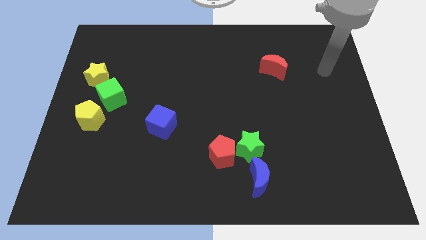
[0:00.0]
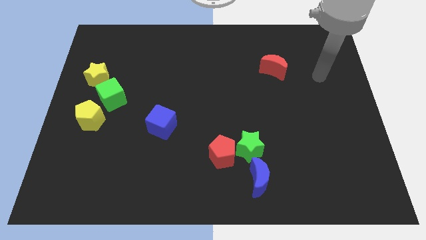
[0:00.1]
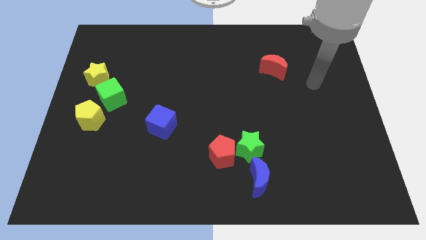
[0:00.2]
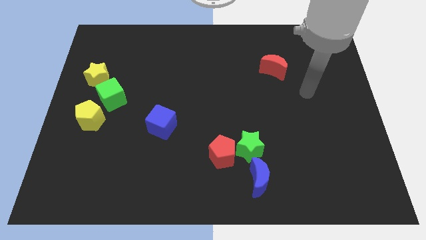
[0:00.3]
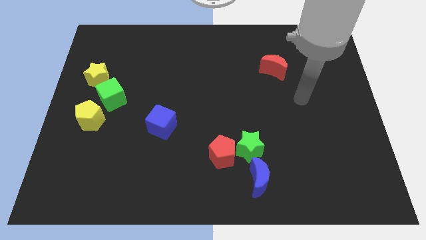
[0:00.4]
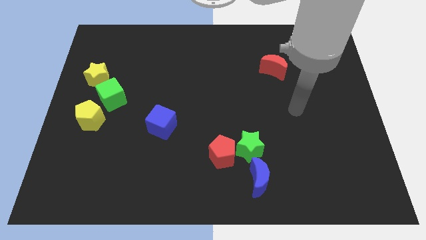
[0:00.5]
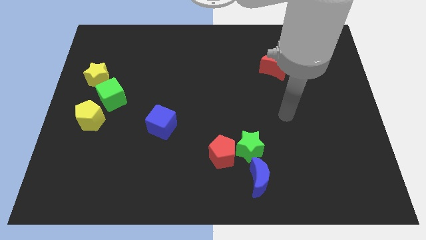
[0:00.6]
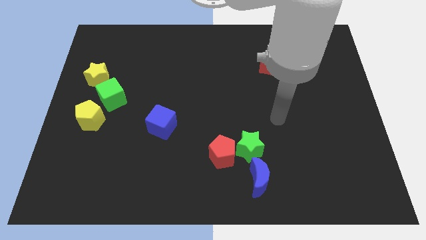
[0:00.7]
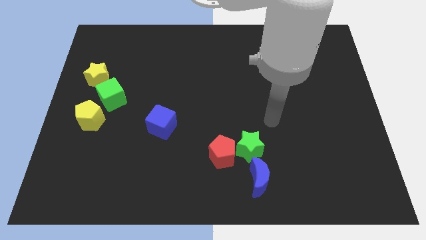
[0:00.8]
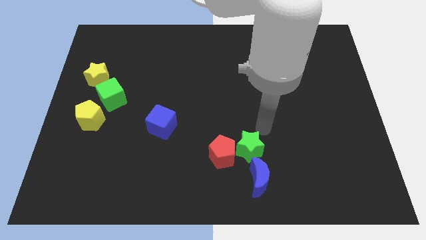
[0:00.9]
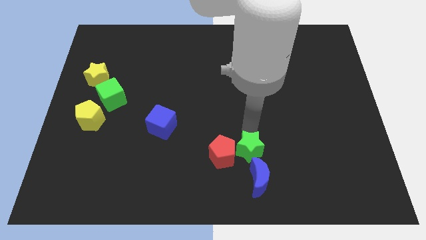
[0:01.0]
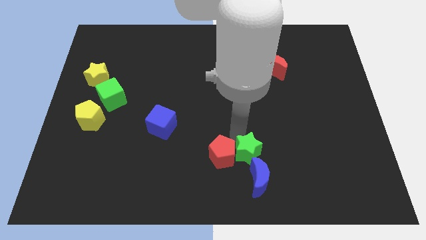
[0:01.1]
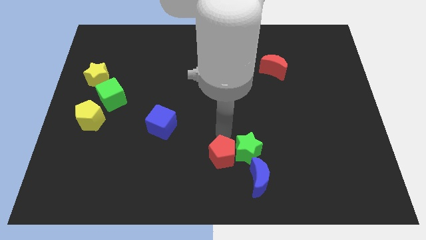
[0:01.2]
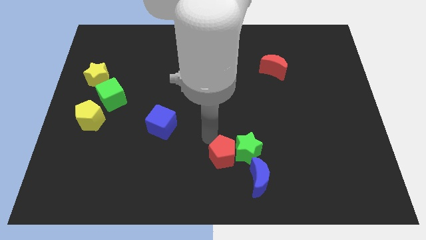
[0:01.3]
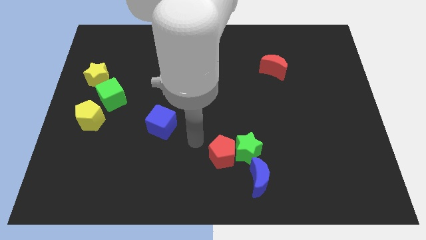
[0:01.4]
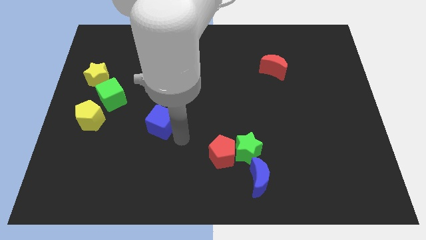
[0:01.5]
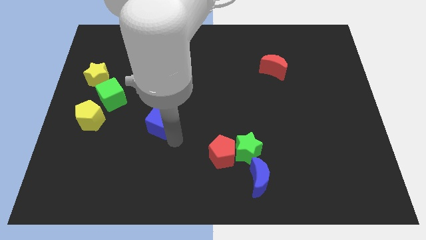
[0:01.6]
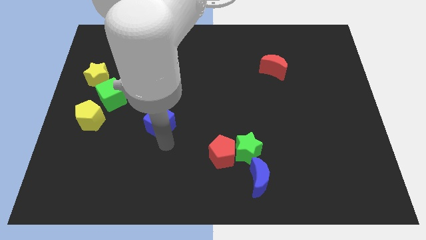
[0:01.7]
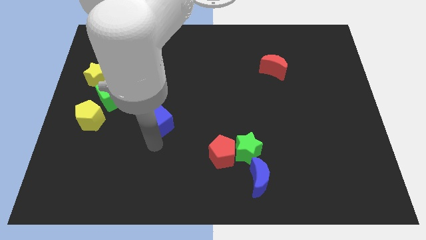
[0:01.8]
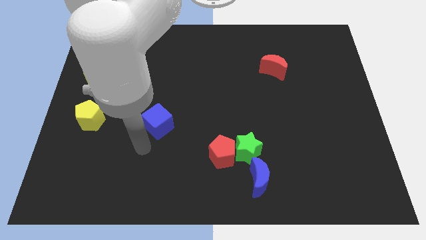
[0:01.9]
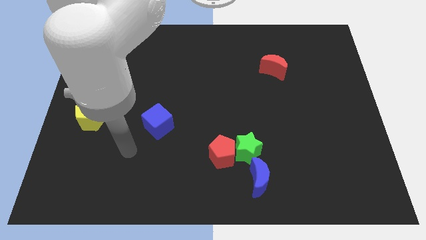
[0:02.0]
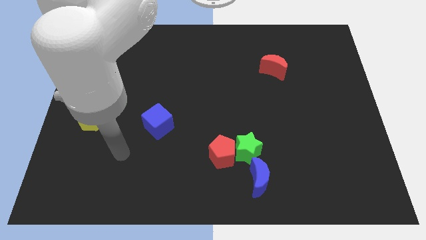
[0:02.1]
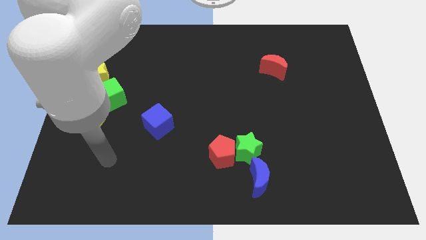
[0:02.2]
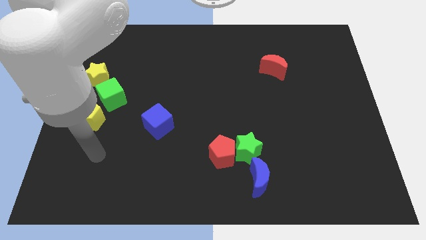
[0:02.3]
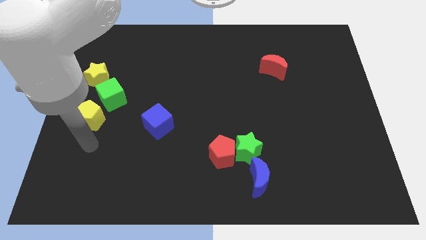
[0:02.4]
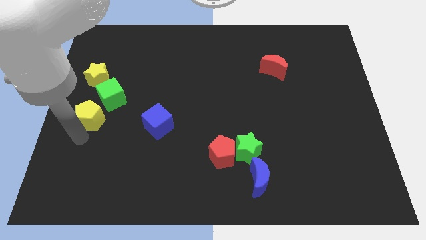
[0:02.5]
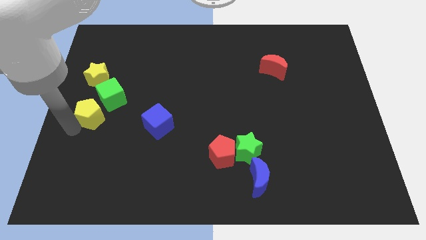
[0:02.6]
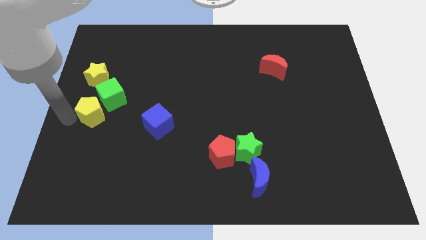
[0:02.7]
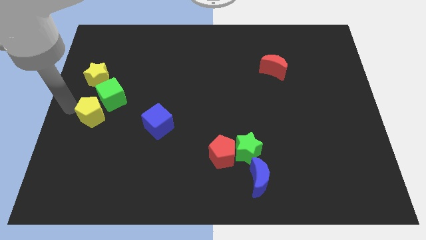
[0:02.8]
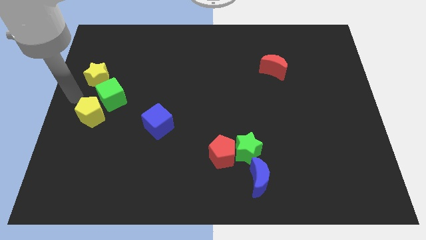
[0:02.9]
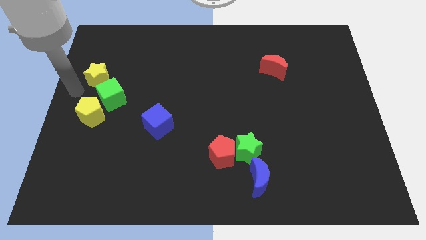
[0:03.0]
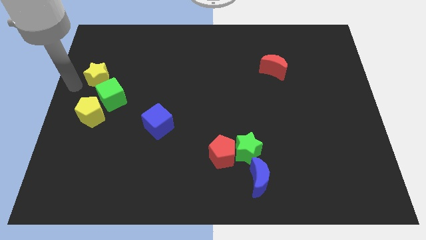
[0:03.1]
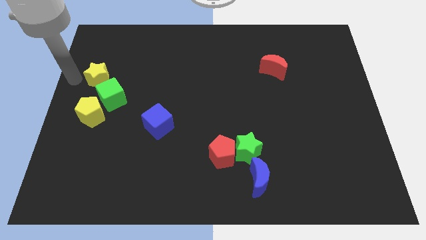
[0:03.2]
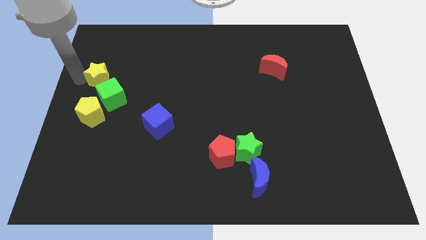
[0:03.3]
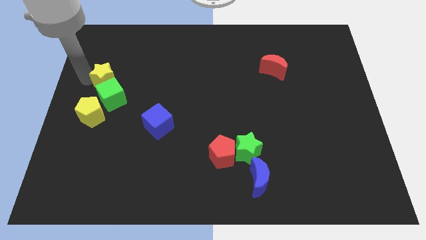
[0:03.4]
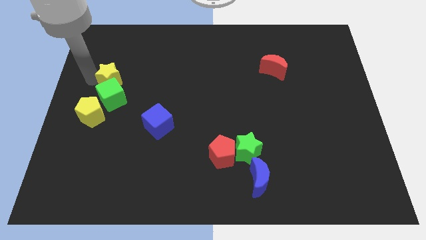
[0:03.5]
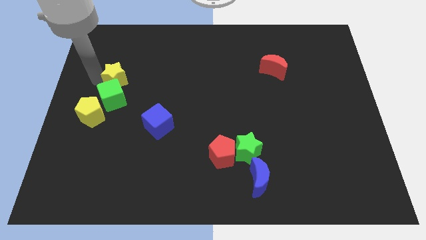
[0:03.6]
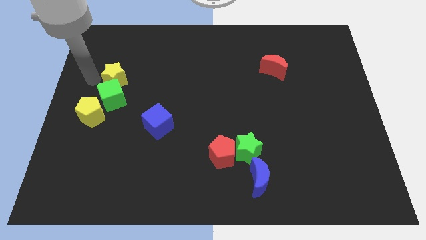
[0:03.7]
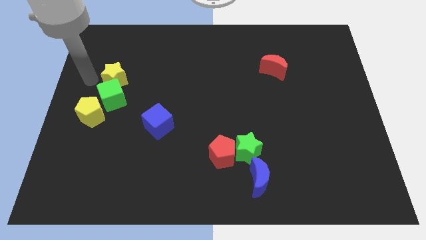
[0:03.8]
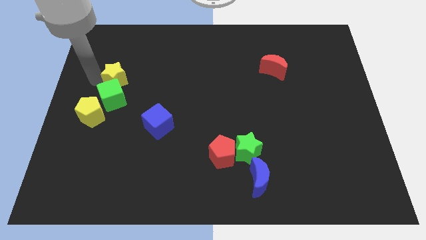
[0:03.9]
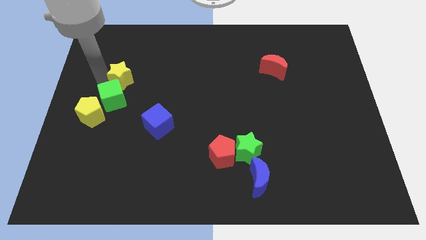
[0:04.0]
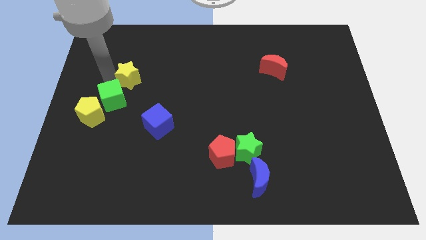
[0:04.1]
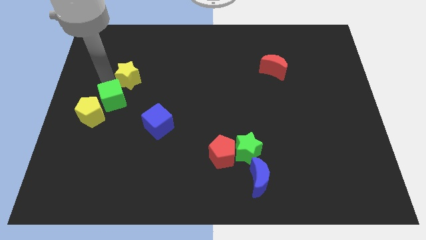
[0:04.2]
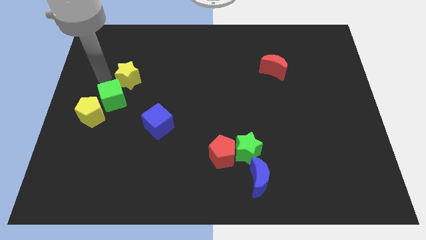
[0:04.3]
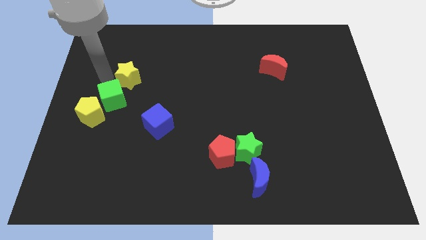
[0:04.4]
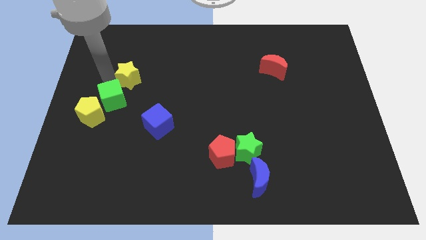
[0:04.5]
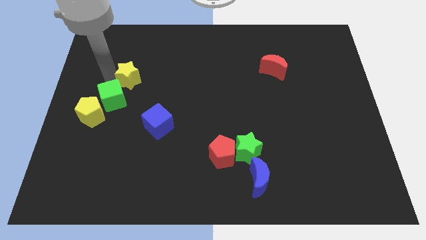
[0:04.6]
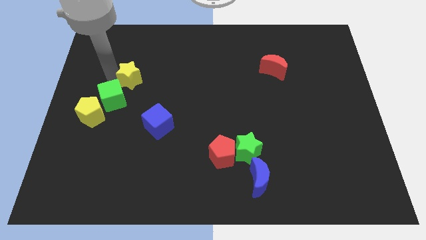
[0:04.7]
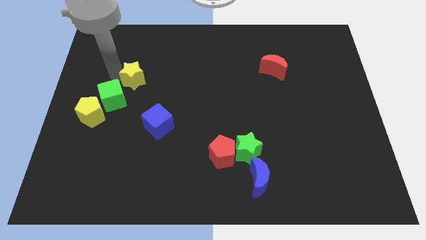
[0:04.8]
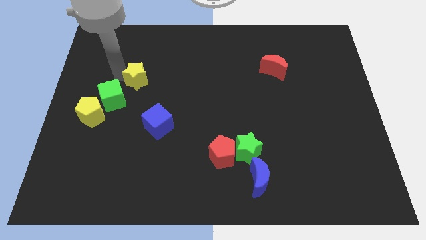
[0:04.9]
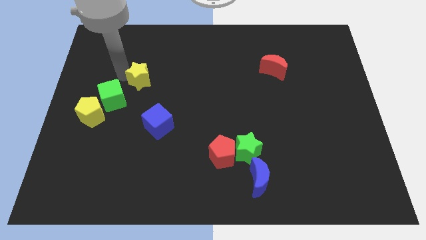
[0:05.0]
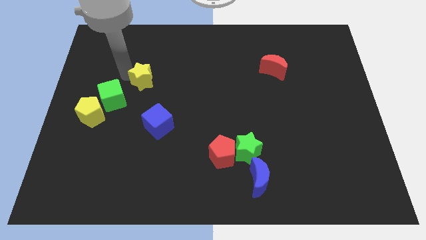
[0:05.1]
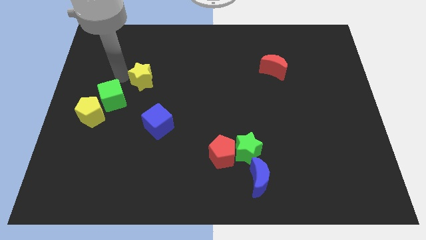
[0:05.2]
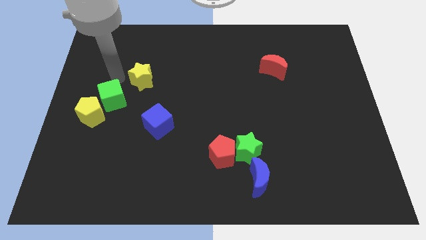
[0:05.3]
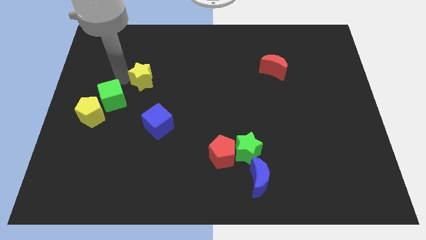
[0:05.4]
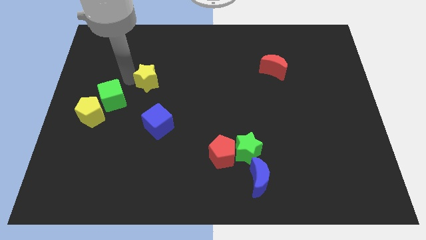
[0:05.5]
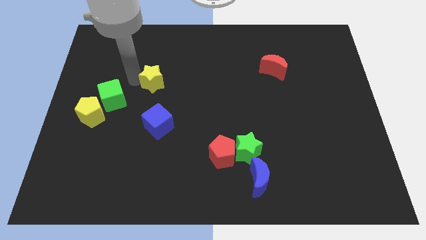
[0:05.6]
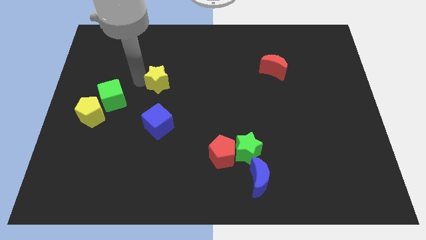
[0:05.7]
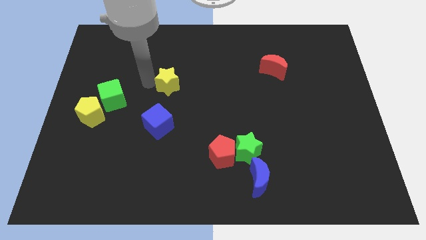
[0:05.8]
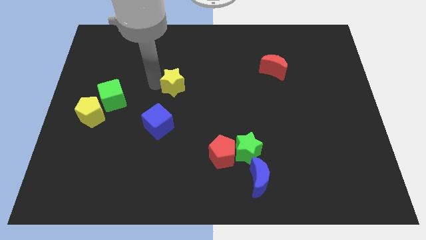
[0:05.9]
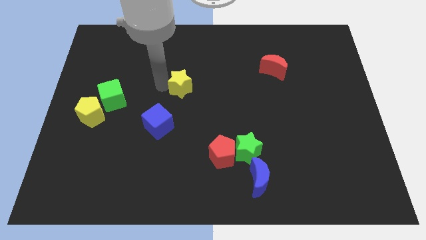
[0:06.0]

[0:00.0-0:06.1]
move the yellow star right

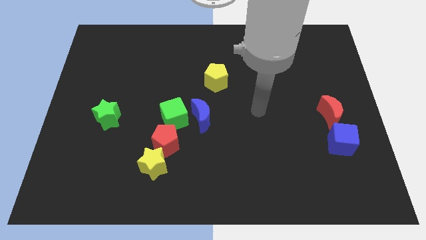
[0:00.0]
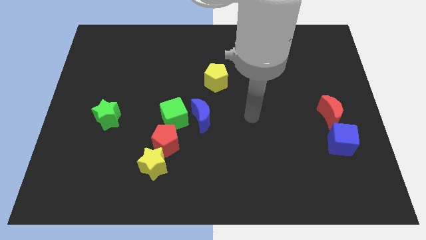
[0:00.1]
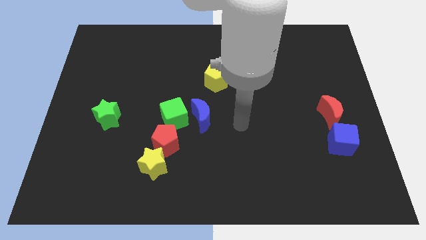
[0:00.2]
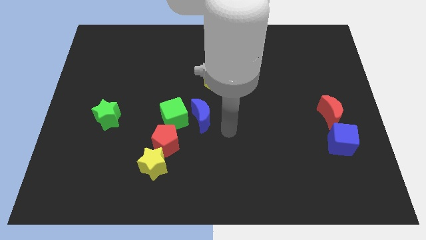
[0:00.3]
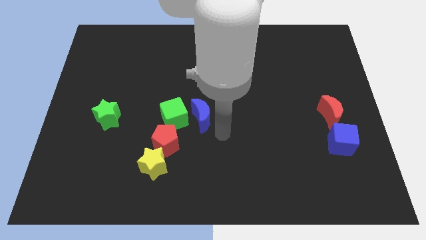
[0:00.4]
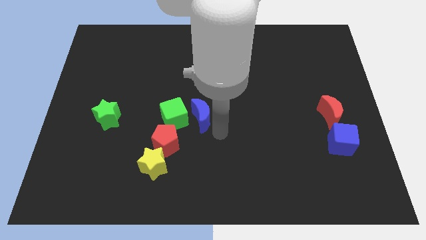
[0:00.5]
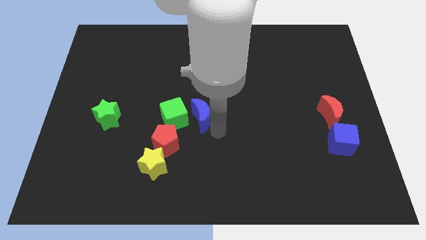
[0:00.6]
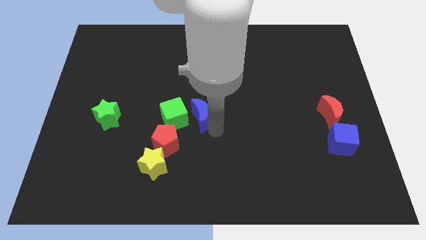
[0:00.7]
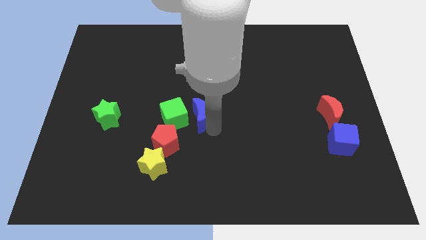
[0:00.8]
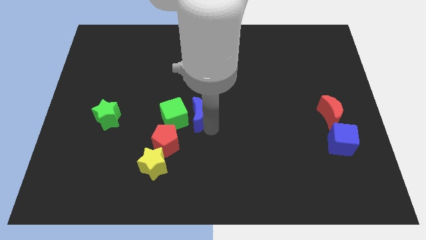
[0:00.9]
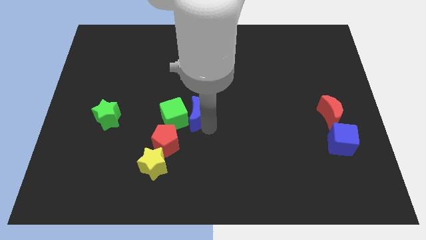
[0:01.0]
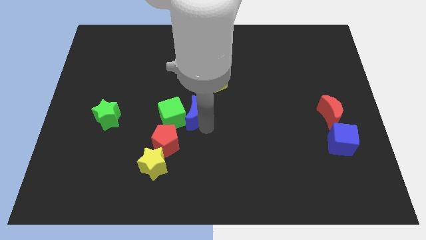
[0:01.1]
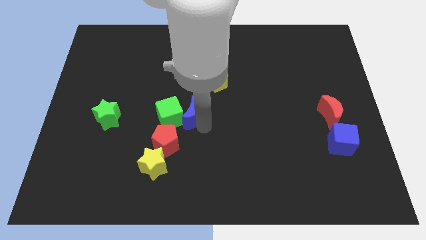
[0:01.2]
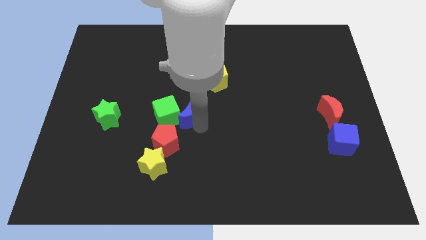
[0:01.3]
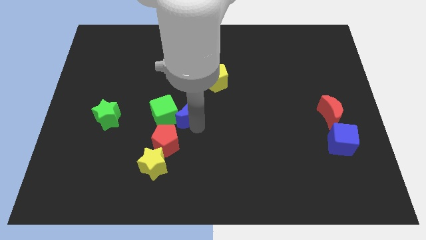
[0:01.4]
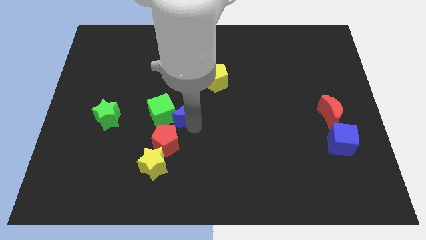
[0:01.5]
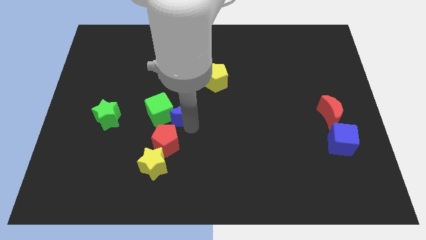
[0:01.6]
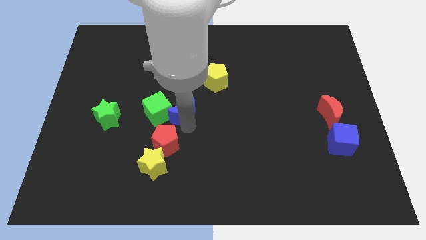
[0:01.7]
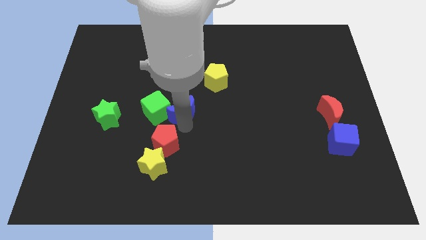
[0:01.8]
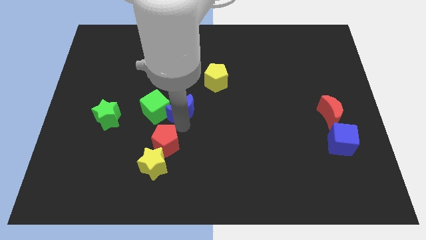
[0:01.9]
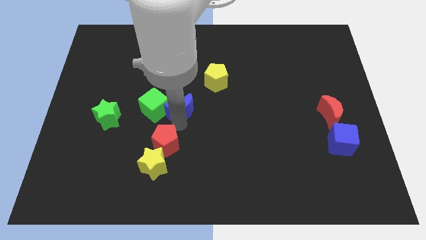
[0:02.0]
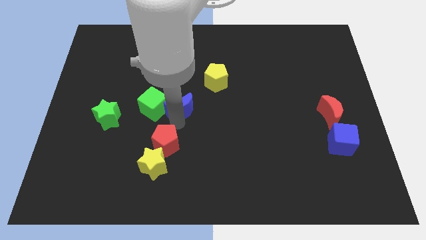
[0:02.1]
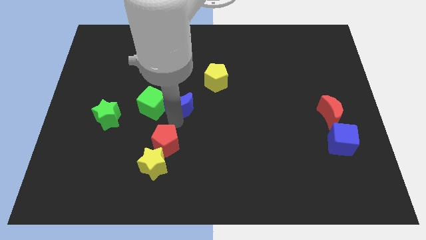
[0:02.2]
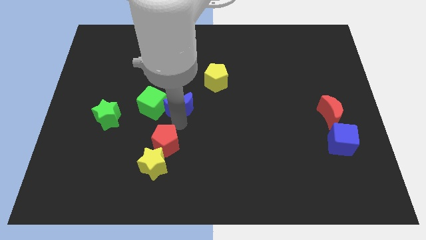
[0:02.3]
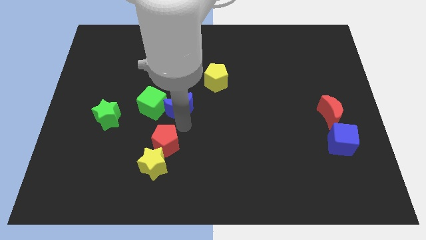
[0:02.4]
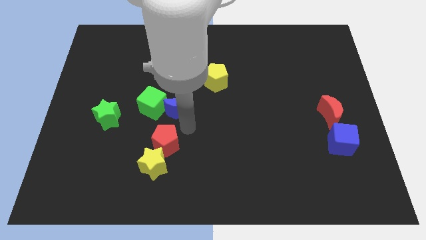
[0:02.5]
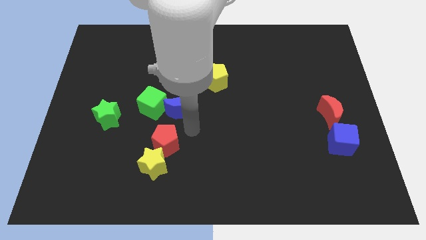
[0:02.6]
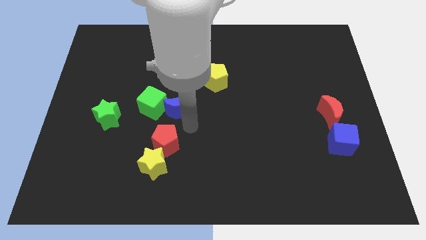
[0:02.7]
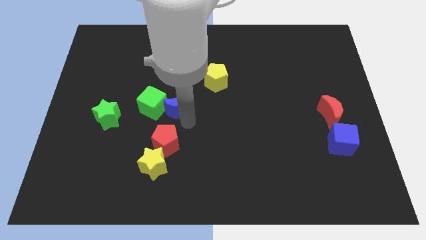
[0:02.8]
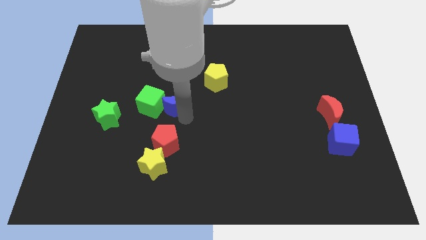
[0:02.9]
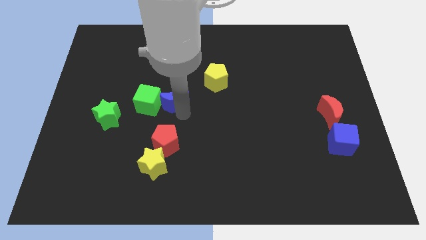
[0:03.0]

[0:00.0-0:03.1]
move the blue moon slightly diagonally upwards and left
